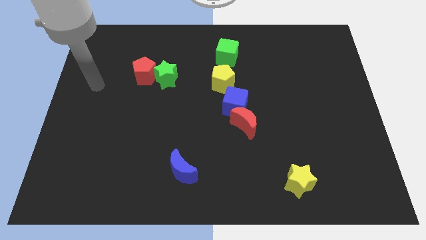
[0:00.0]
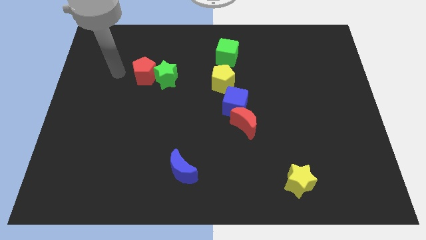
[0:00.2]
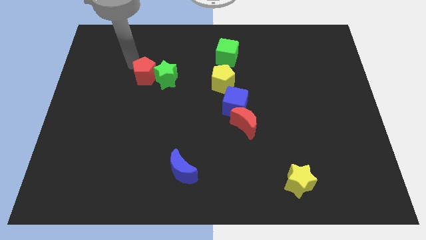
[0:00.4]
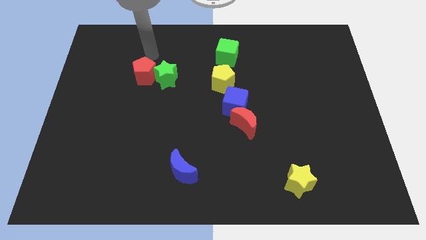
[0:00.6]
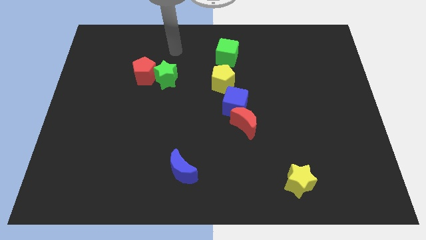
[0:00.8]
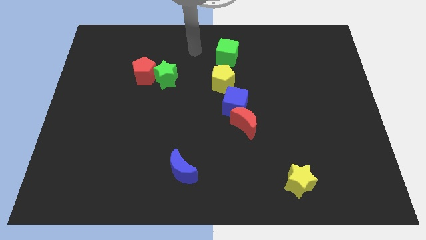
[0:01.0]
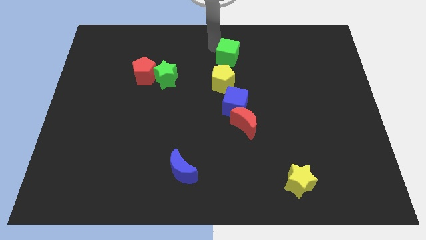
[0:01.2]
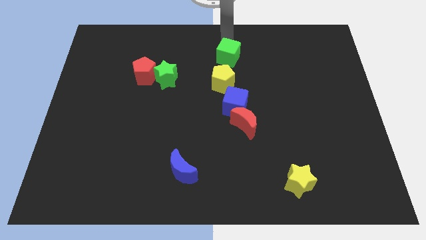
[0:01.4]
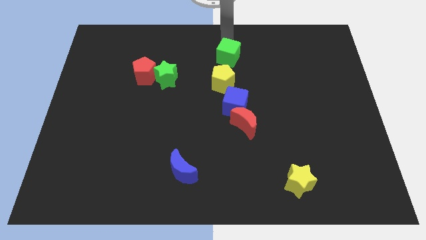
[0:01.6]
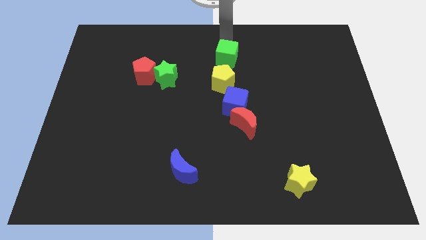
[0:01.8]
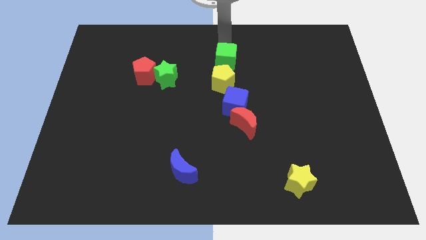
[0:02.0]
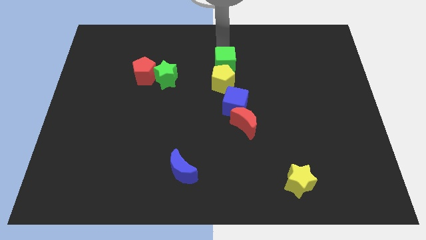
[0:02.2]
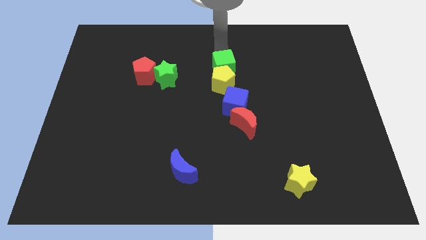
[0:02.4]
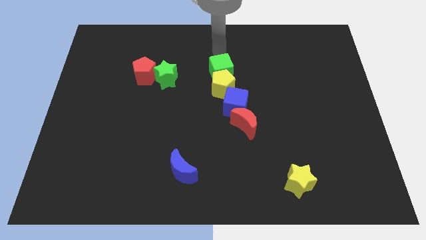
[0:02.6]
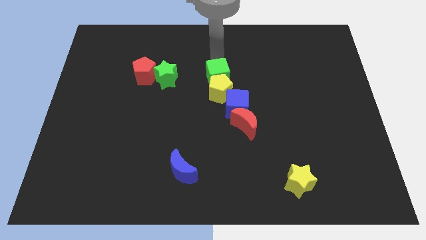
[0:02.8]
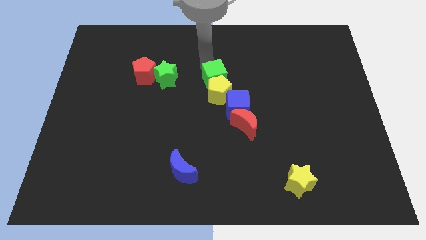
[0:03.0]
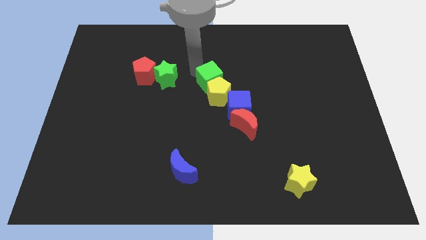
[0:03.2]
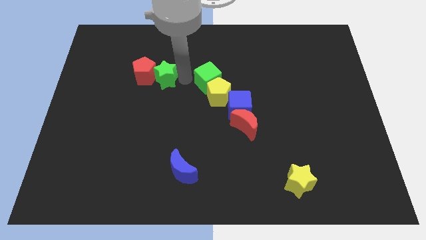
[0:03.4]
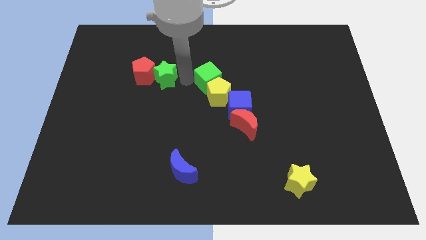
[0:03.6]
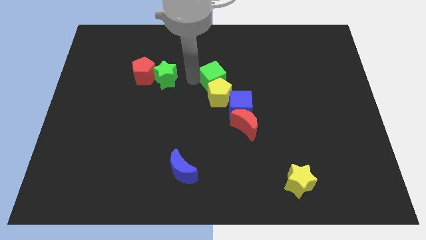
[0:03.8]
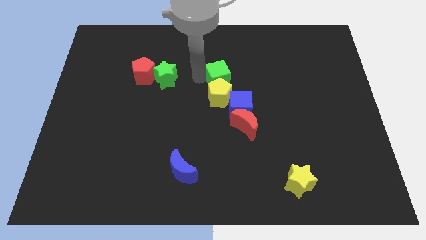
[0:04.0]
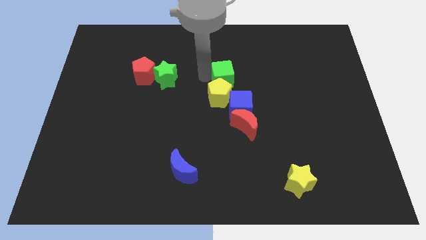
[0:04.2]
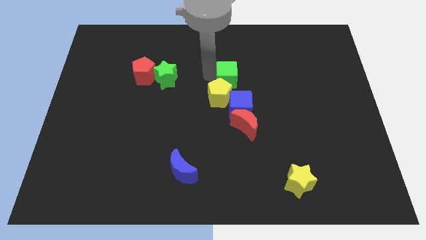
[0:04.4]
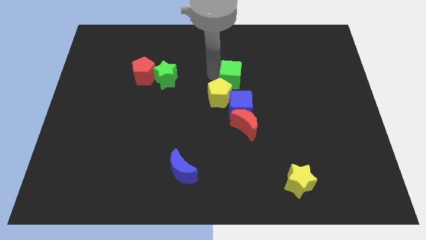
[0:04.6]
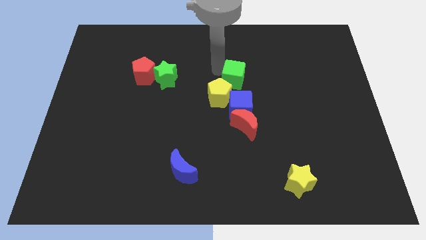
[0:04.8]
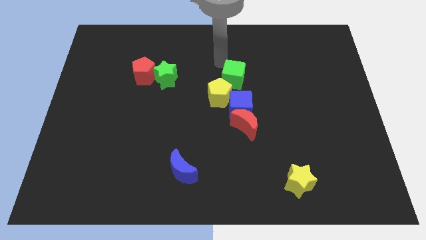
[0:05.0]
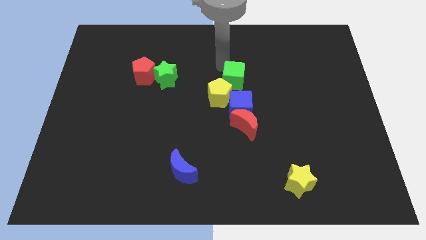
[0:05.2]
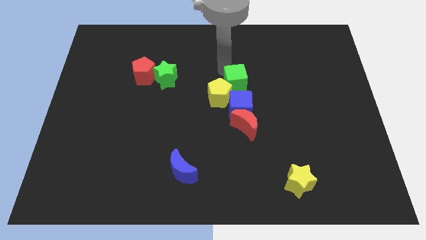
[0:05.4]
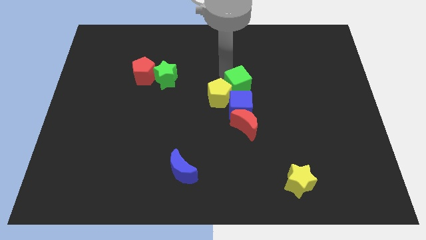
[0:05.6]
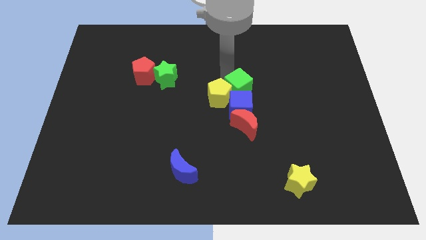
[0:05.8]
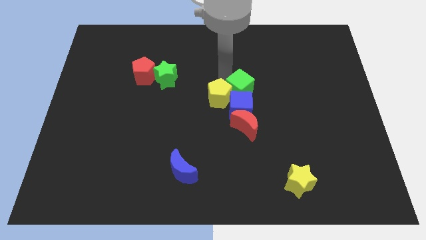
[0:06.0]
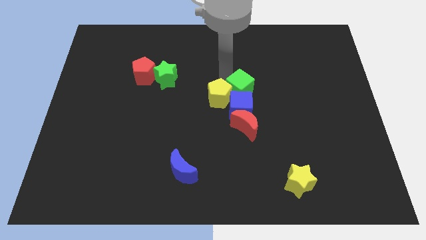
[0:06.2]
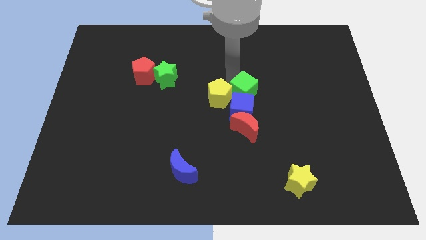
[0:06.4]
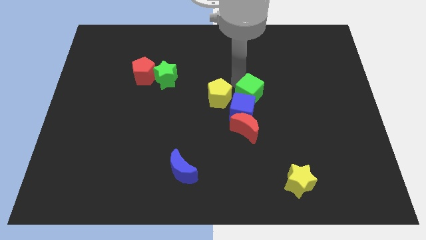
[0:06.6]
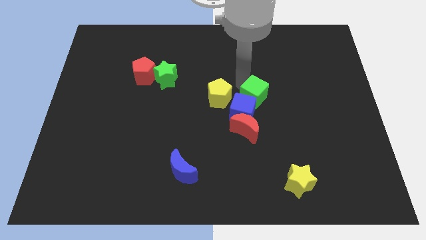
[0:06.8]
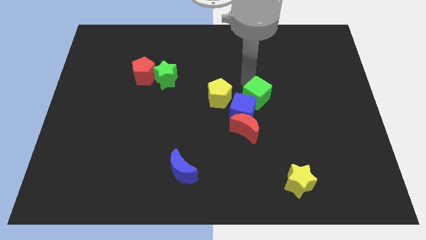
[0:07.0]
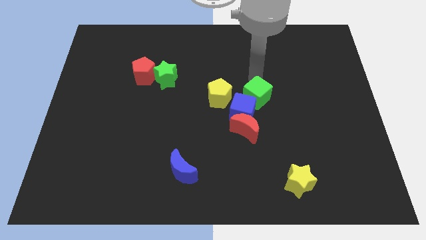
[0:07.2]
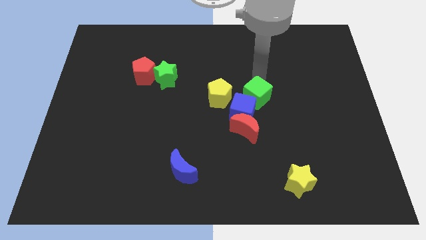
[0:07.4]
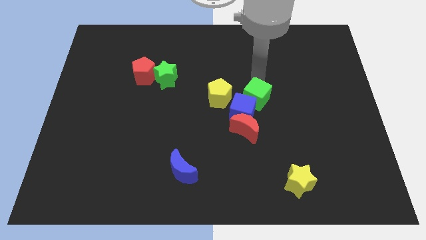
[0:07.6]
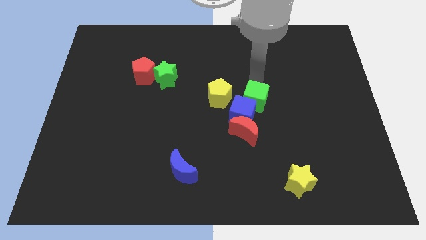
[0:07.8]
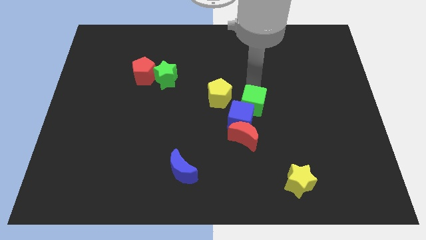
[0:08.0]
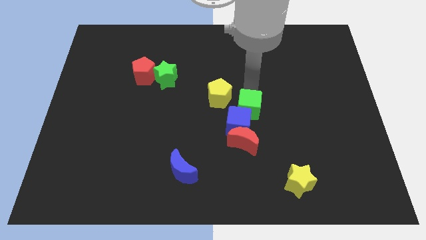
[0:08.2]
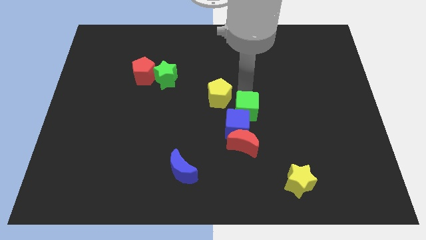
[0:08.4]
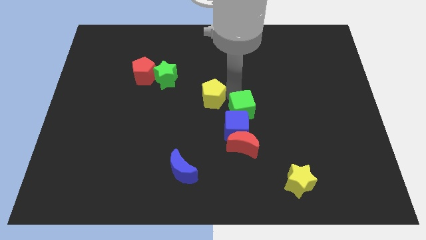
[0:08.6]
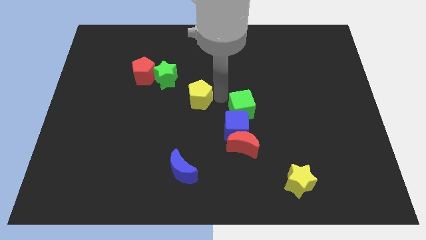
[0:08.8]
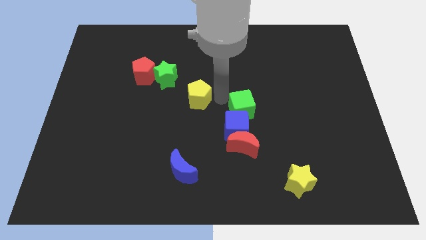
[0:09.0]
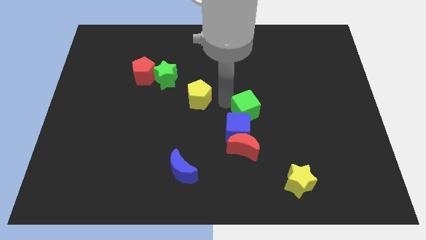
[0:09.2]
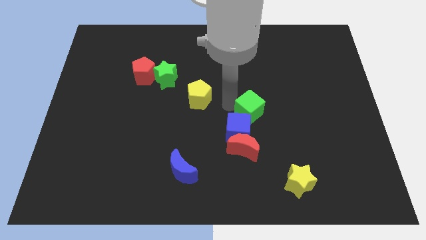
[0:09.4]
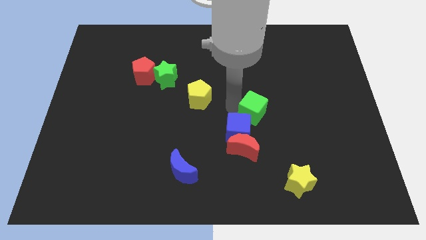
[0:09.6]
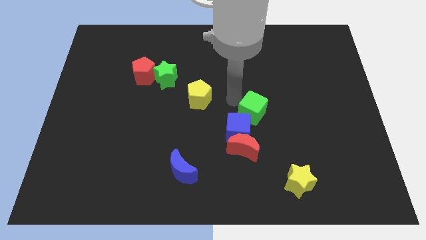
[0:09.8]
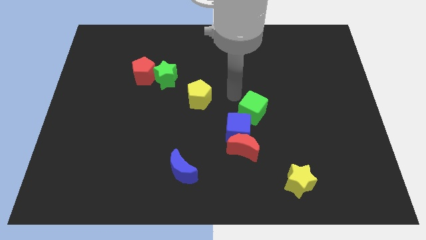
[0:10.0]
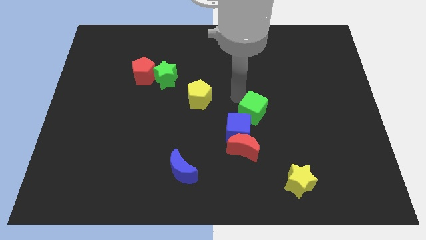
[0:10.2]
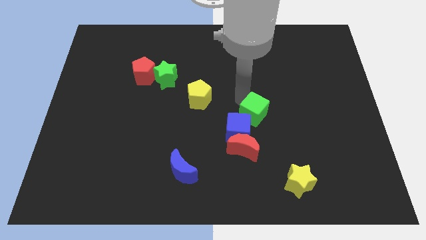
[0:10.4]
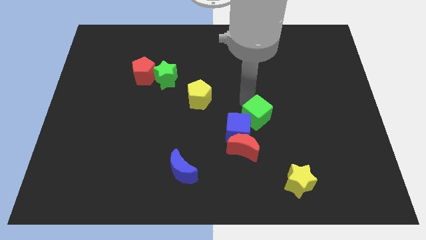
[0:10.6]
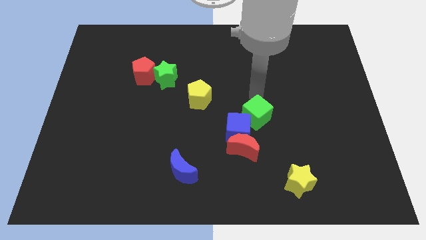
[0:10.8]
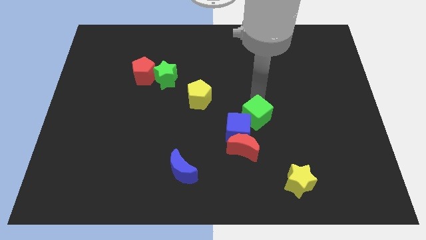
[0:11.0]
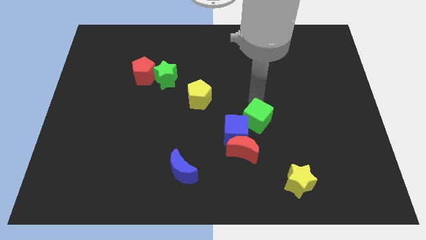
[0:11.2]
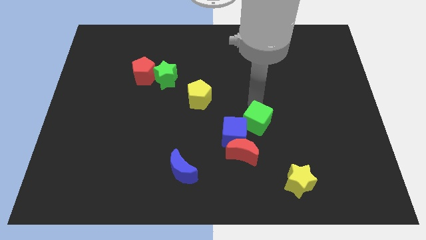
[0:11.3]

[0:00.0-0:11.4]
move the green cube downwards

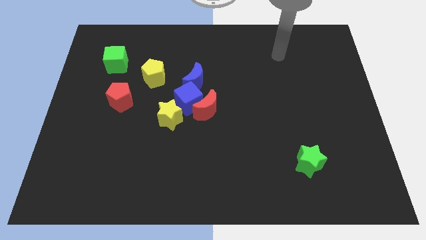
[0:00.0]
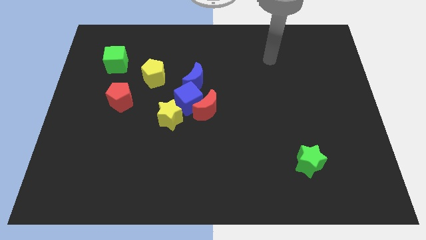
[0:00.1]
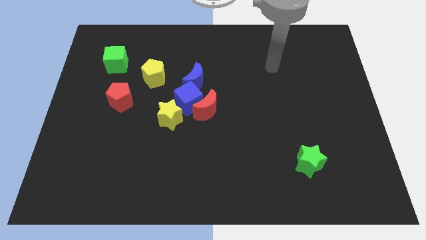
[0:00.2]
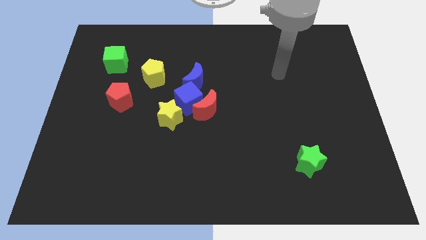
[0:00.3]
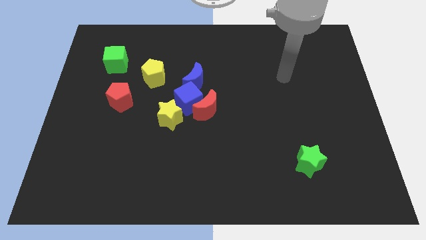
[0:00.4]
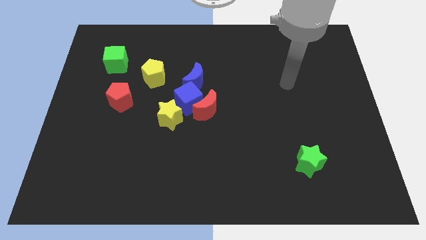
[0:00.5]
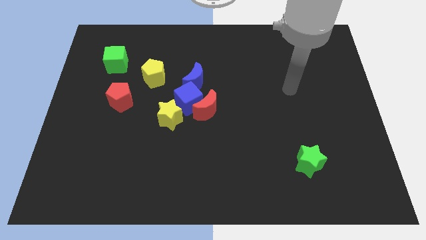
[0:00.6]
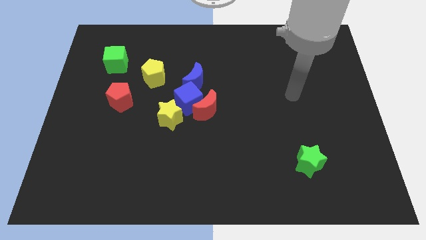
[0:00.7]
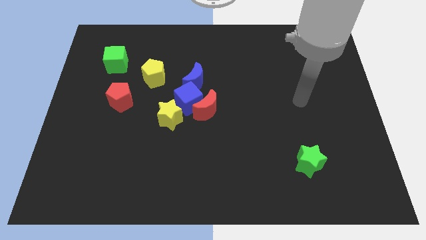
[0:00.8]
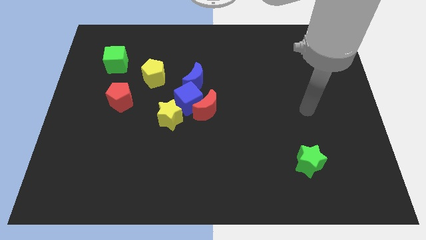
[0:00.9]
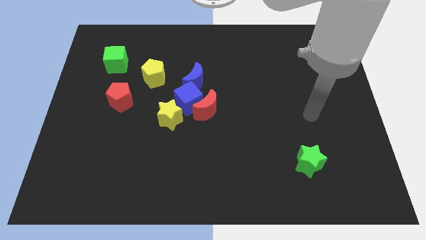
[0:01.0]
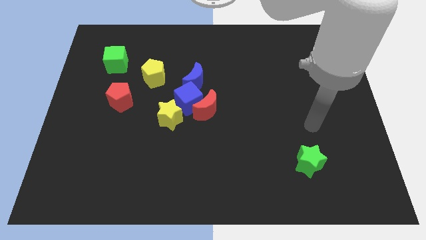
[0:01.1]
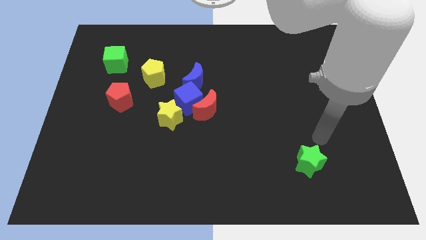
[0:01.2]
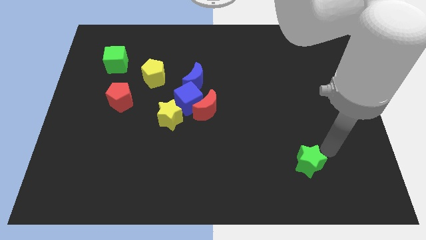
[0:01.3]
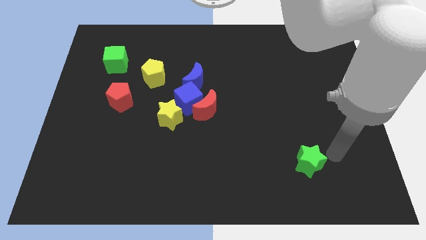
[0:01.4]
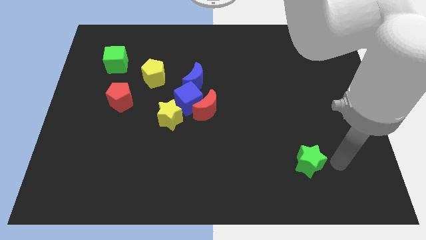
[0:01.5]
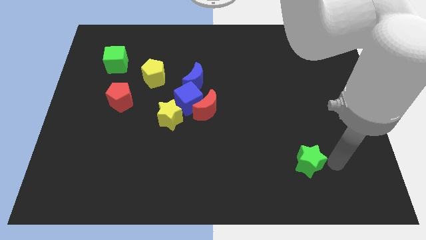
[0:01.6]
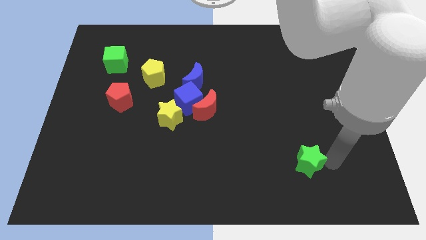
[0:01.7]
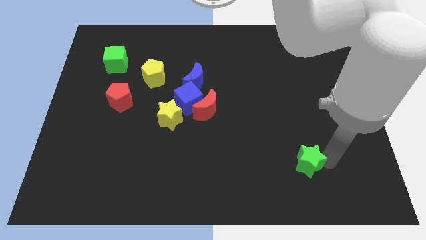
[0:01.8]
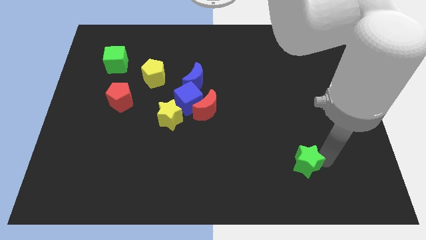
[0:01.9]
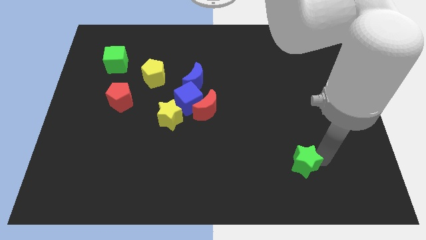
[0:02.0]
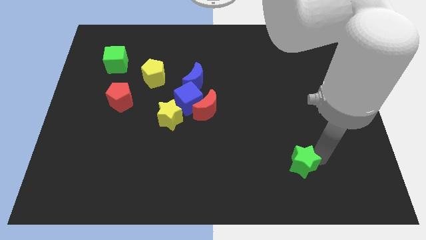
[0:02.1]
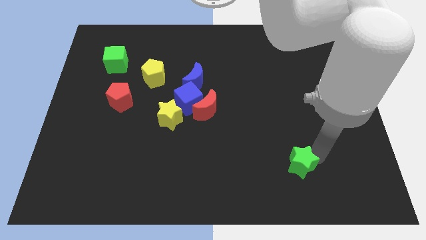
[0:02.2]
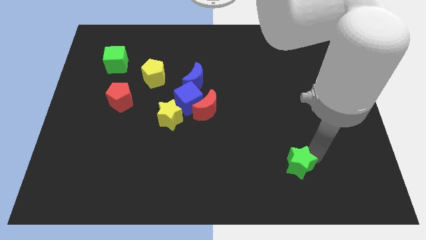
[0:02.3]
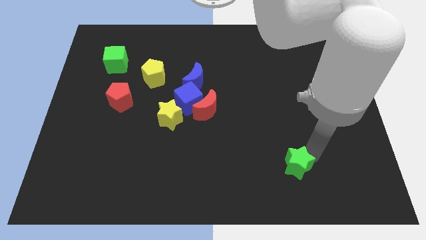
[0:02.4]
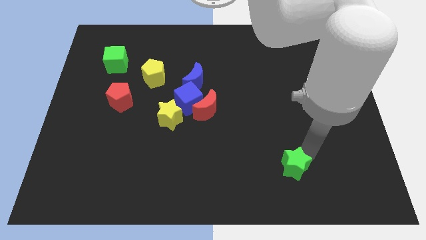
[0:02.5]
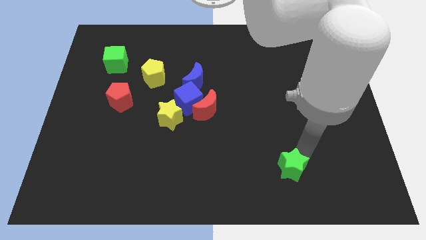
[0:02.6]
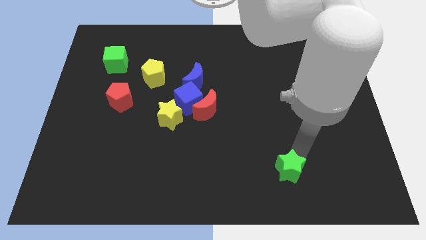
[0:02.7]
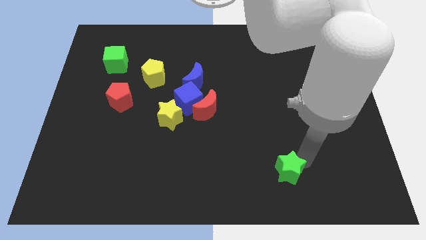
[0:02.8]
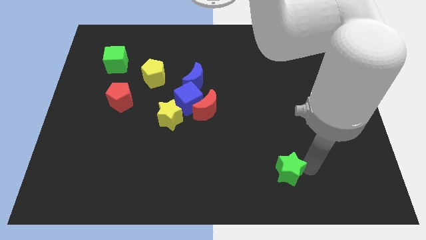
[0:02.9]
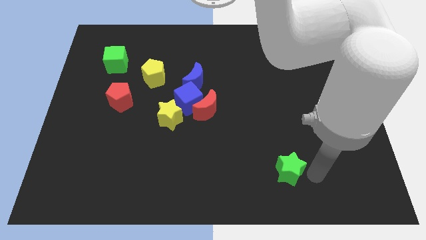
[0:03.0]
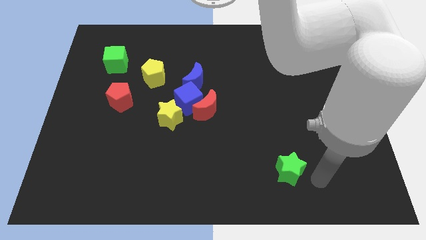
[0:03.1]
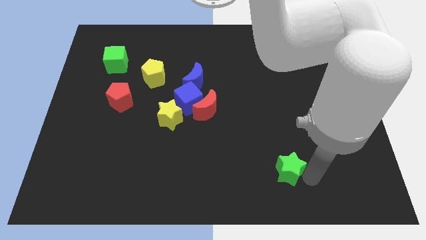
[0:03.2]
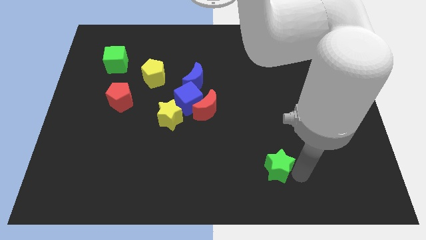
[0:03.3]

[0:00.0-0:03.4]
slightly push the green star to the left
